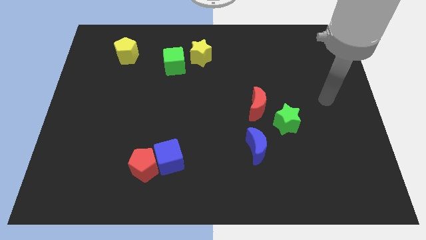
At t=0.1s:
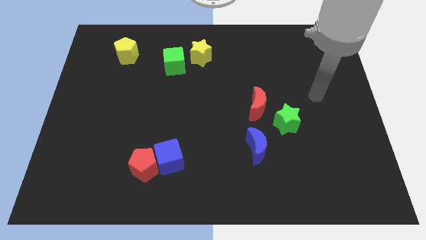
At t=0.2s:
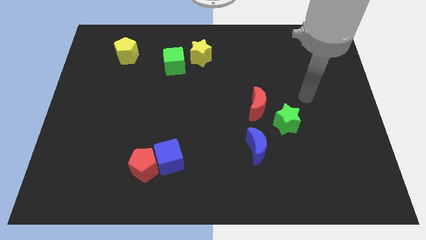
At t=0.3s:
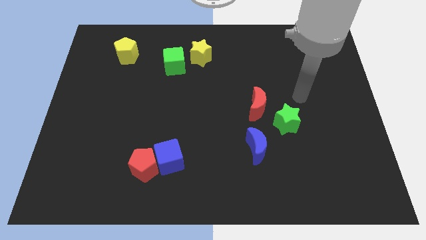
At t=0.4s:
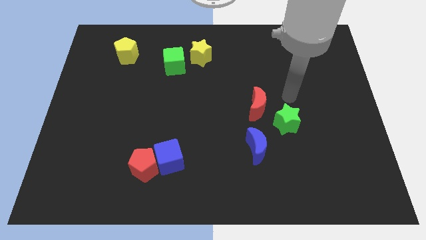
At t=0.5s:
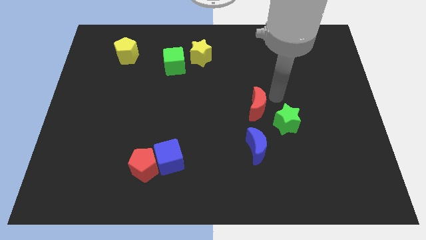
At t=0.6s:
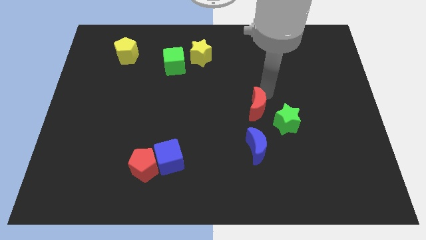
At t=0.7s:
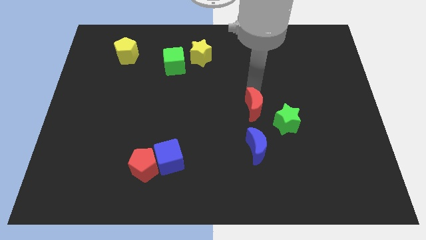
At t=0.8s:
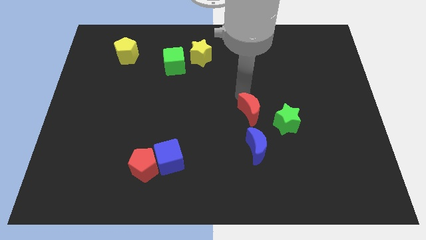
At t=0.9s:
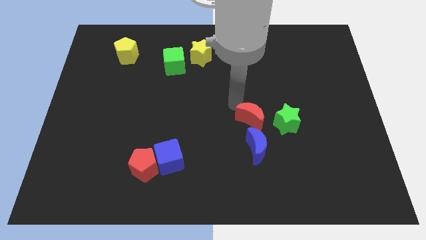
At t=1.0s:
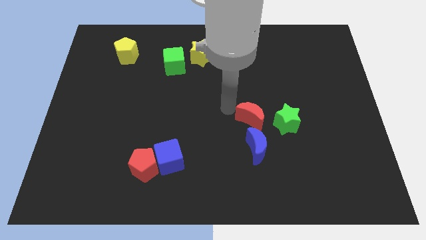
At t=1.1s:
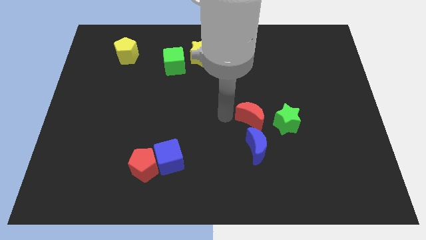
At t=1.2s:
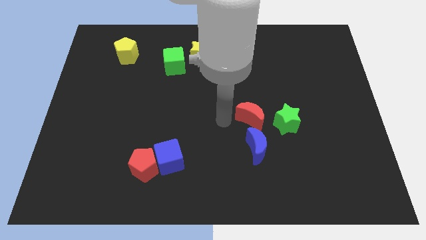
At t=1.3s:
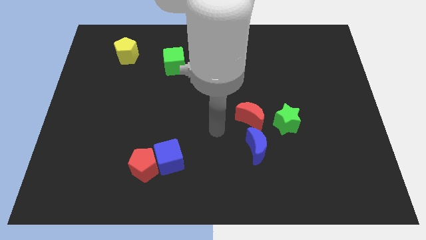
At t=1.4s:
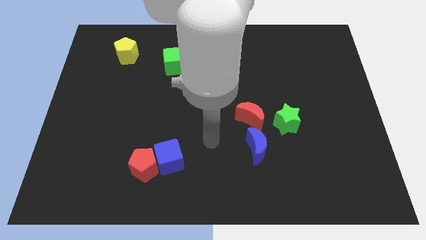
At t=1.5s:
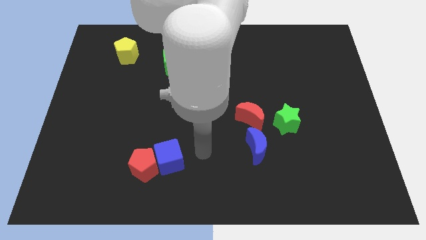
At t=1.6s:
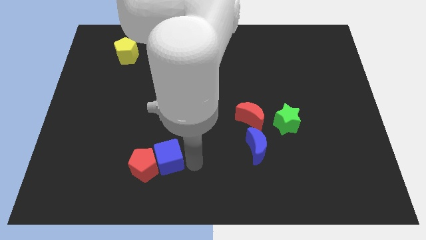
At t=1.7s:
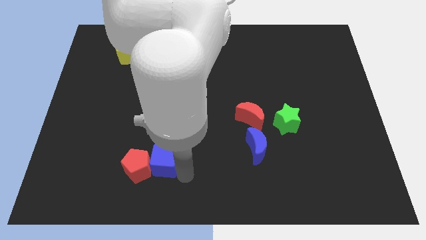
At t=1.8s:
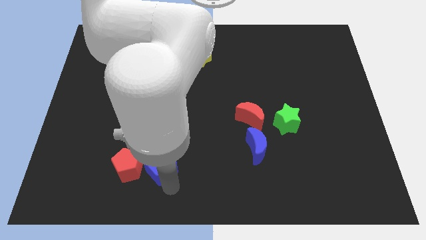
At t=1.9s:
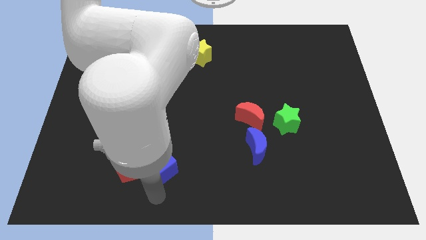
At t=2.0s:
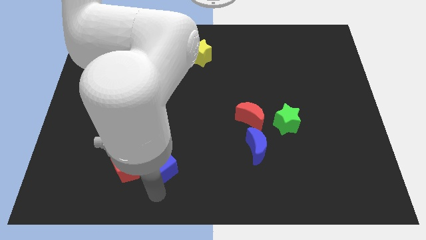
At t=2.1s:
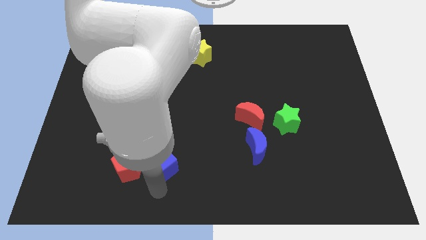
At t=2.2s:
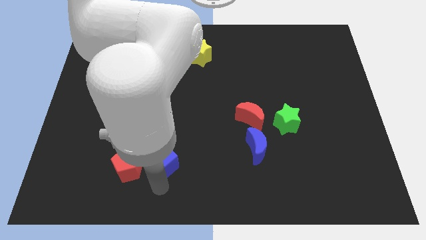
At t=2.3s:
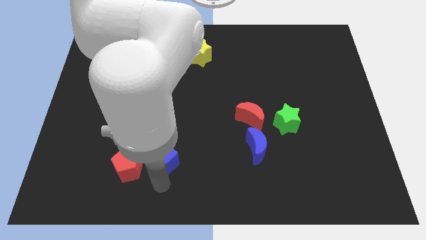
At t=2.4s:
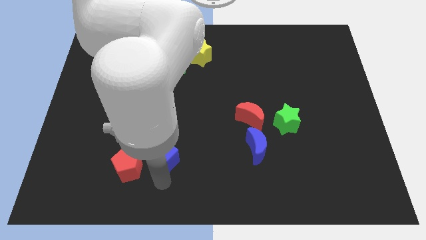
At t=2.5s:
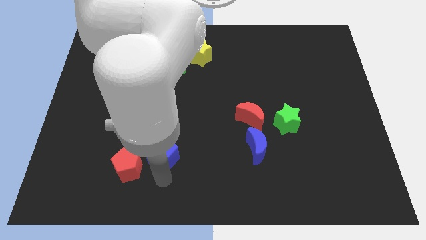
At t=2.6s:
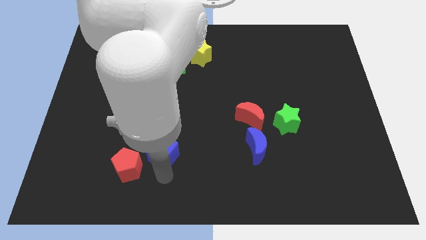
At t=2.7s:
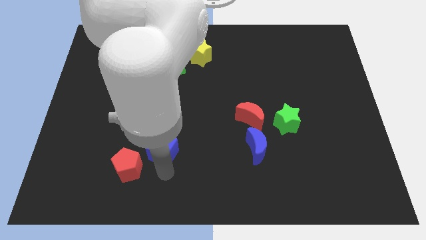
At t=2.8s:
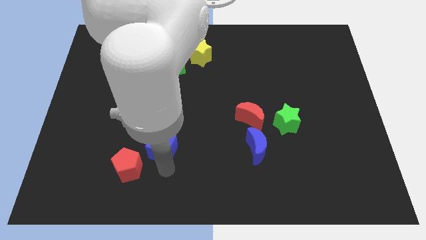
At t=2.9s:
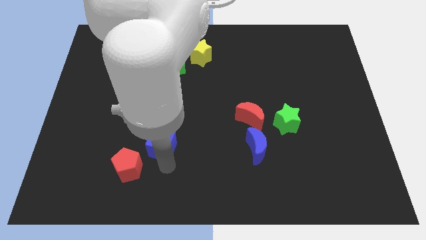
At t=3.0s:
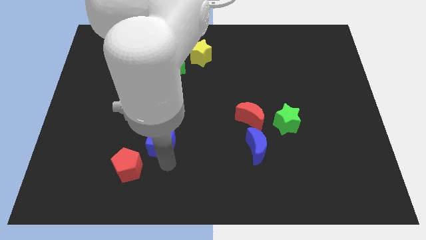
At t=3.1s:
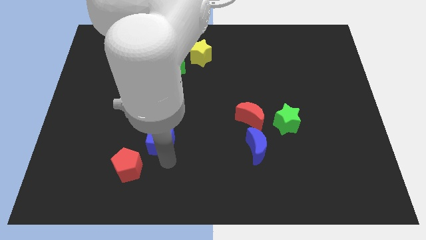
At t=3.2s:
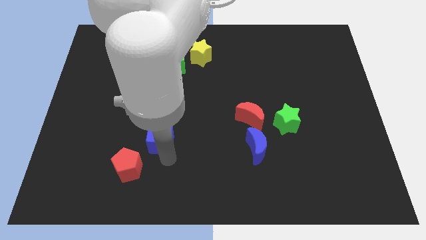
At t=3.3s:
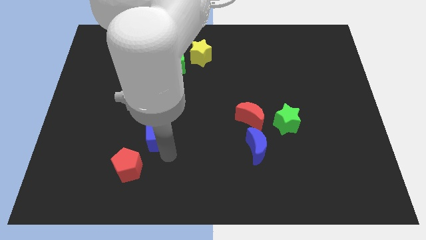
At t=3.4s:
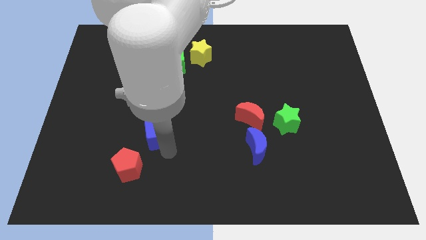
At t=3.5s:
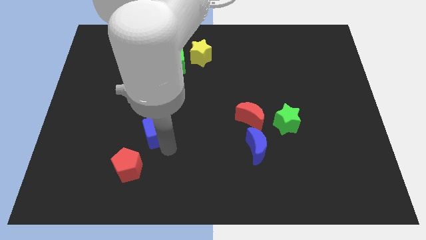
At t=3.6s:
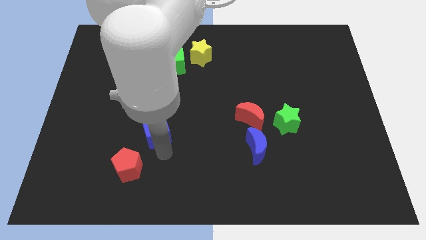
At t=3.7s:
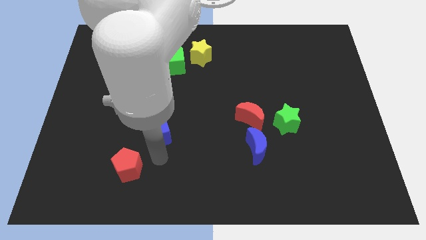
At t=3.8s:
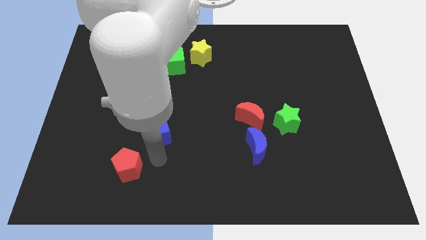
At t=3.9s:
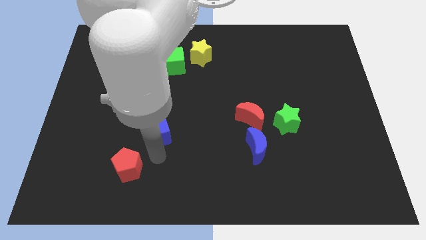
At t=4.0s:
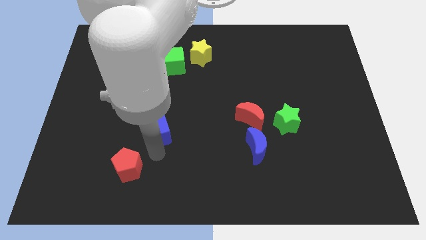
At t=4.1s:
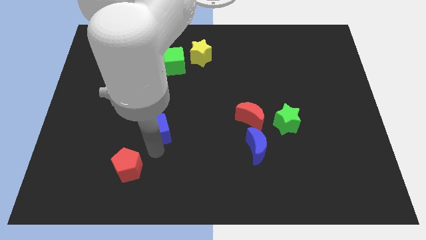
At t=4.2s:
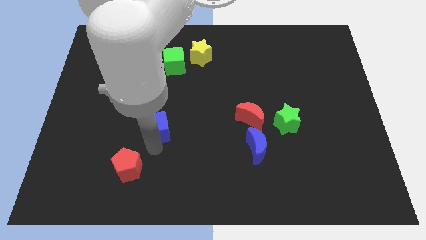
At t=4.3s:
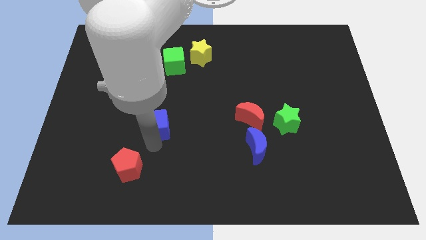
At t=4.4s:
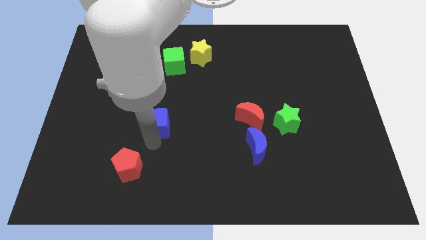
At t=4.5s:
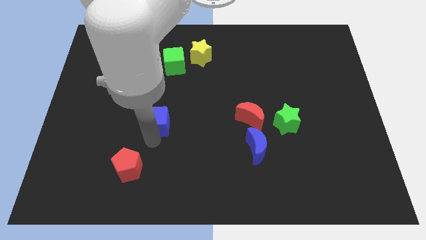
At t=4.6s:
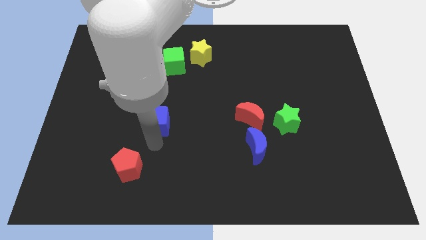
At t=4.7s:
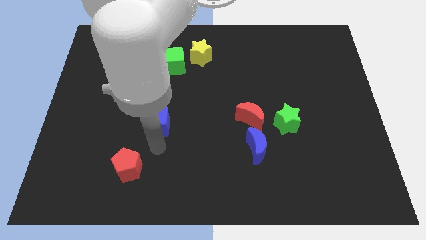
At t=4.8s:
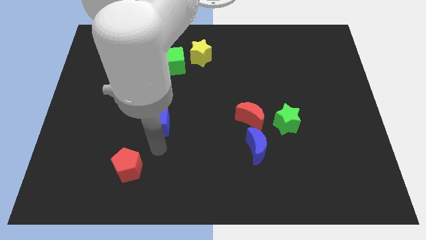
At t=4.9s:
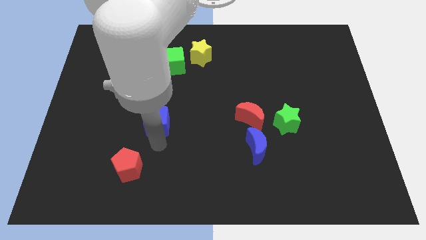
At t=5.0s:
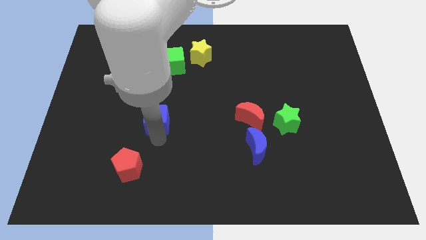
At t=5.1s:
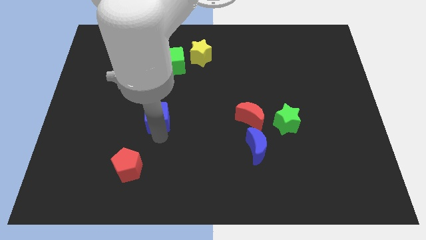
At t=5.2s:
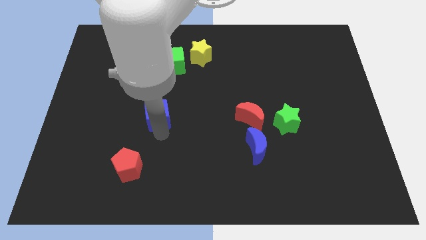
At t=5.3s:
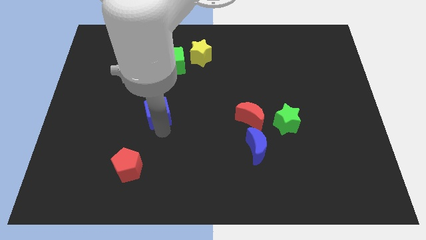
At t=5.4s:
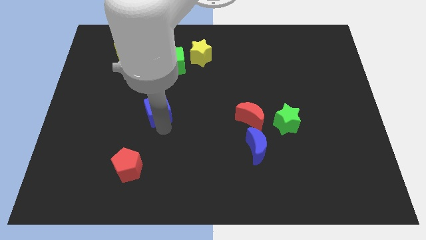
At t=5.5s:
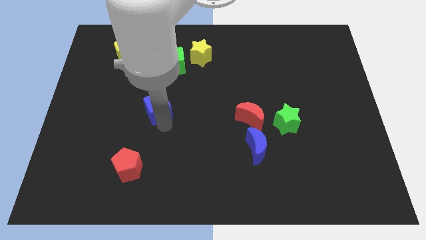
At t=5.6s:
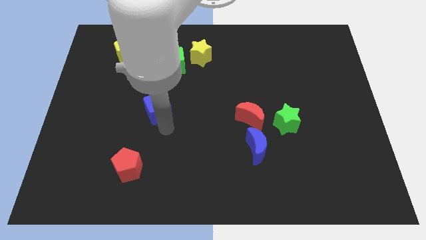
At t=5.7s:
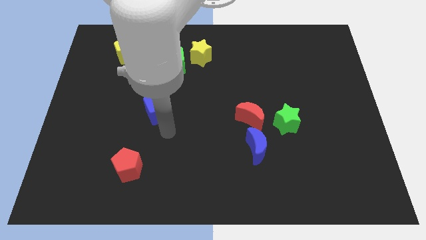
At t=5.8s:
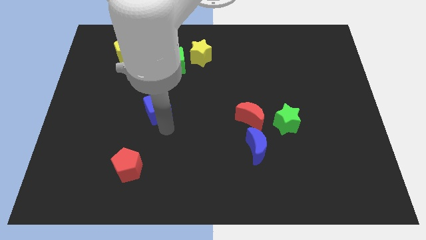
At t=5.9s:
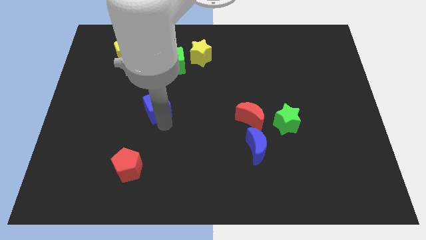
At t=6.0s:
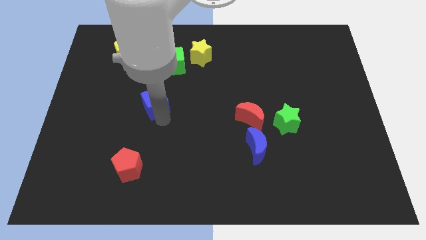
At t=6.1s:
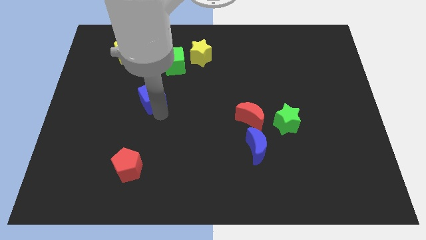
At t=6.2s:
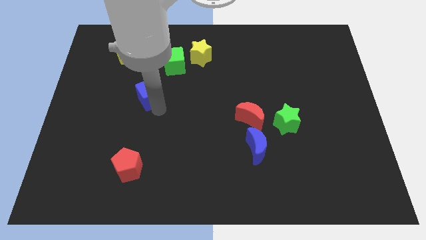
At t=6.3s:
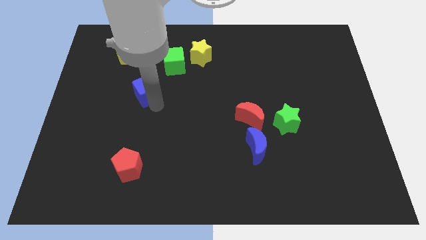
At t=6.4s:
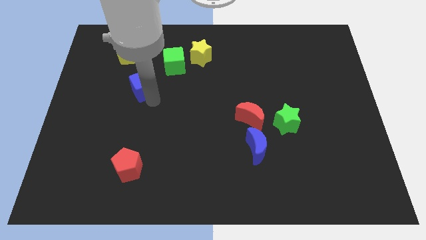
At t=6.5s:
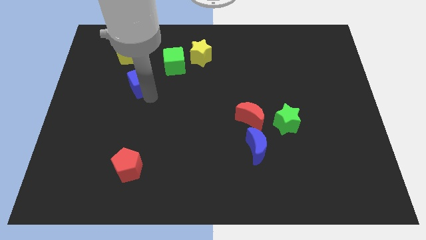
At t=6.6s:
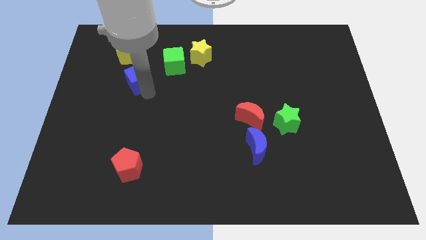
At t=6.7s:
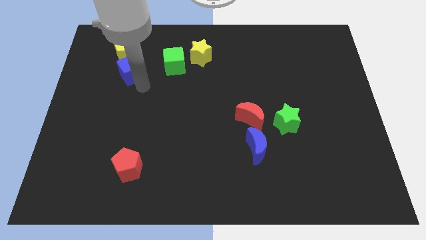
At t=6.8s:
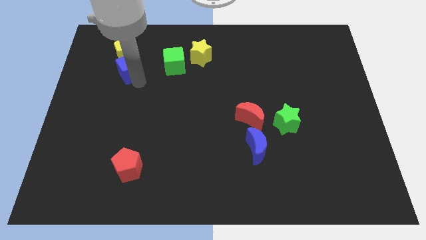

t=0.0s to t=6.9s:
push the blue cube next to the yellow pentagon
